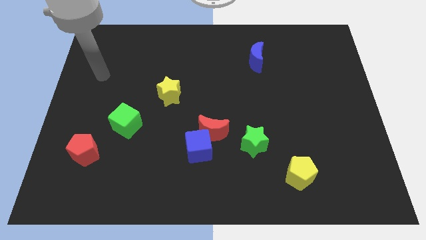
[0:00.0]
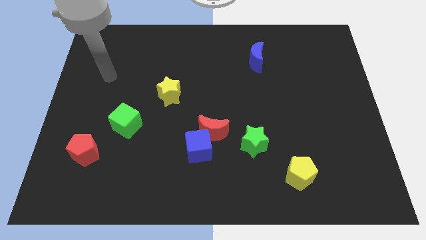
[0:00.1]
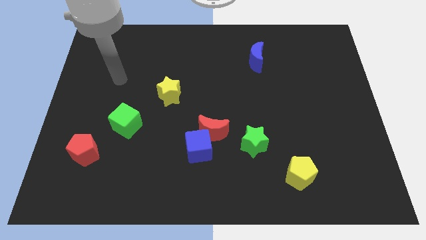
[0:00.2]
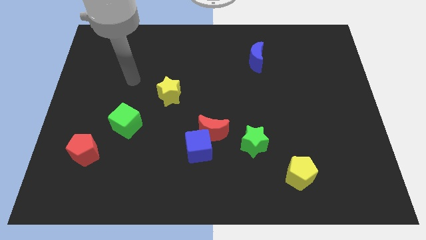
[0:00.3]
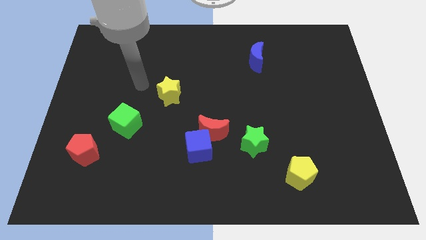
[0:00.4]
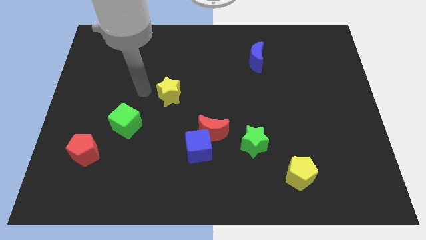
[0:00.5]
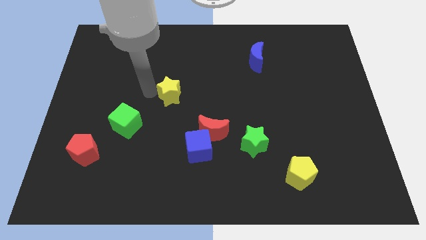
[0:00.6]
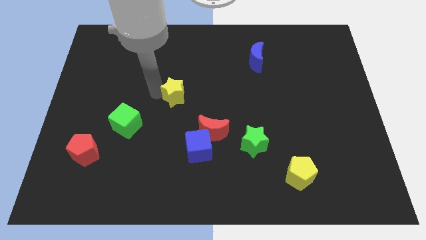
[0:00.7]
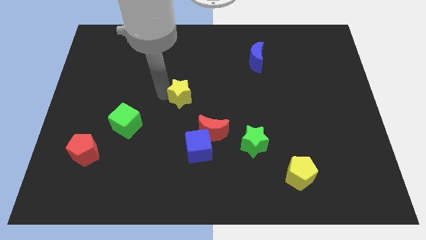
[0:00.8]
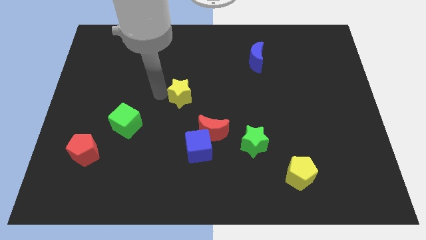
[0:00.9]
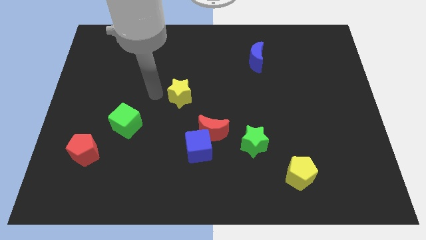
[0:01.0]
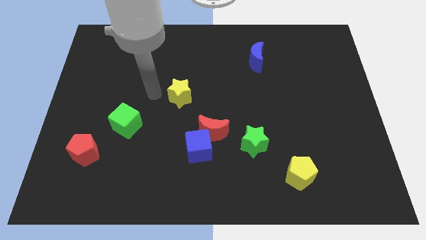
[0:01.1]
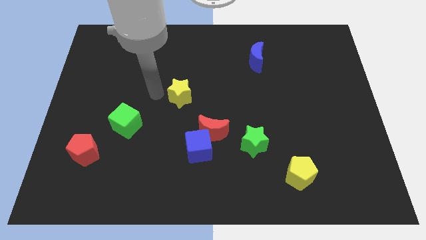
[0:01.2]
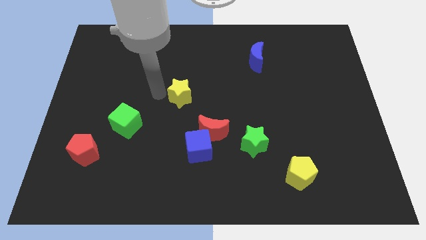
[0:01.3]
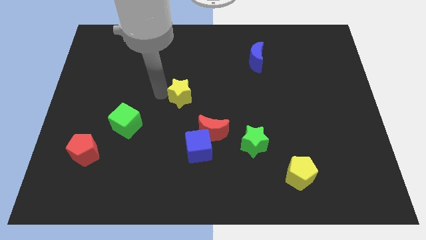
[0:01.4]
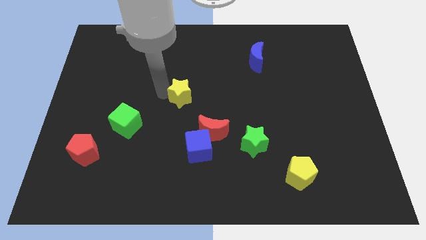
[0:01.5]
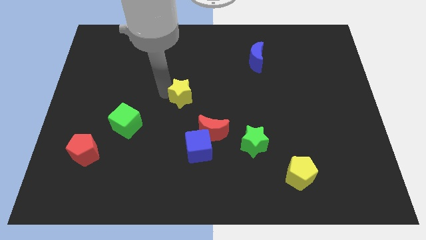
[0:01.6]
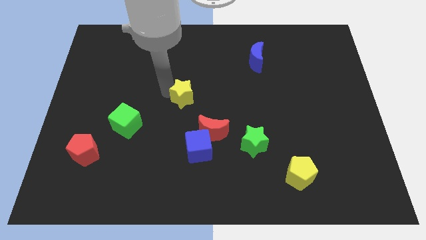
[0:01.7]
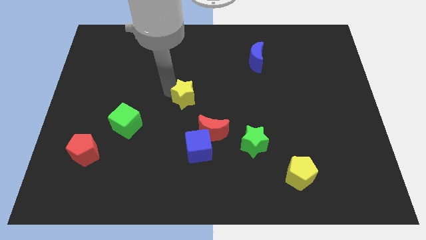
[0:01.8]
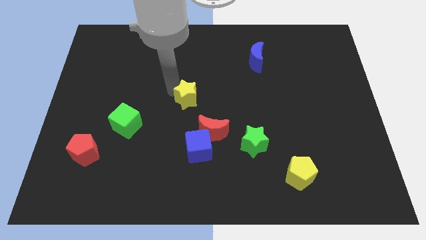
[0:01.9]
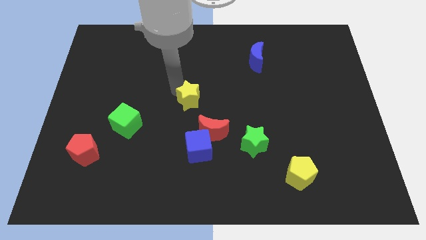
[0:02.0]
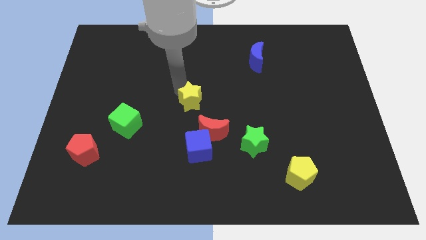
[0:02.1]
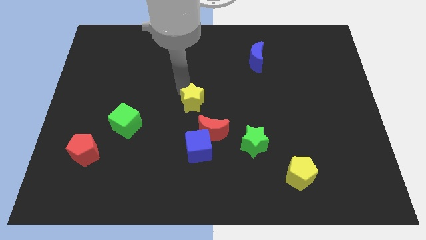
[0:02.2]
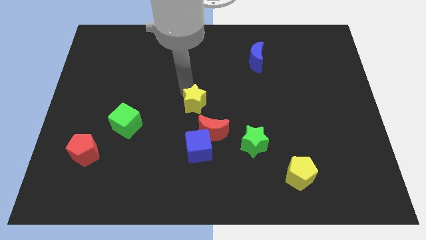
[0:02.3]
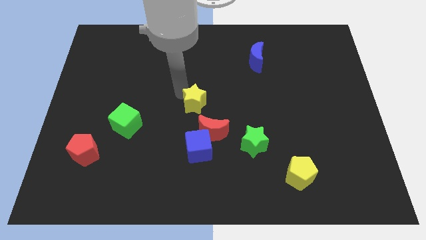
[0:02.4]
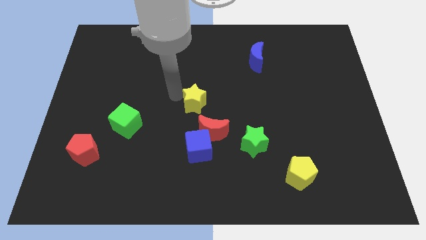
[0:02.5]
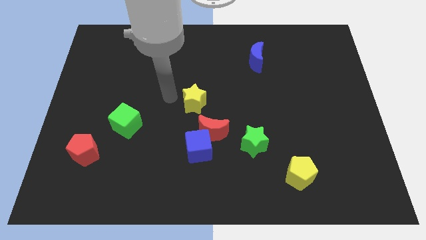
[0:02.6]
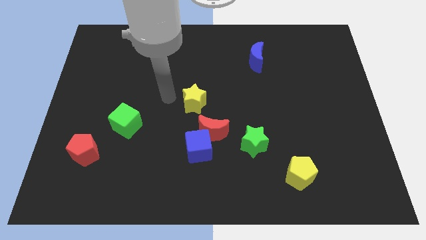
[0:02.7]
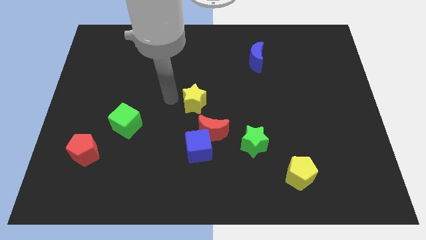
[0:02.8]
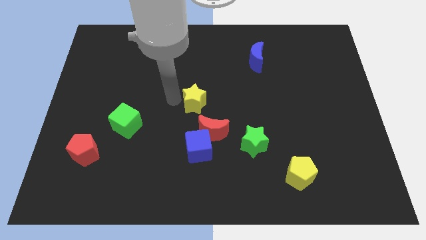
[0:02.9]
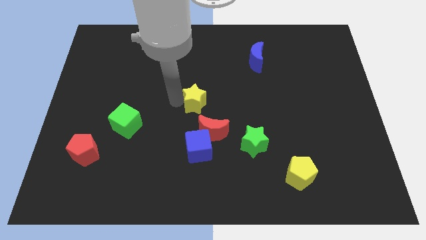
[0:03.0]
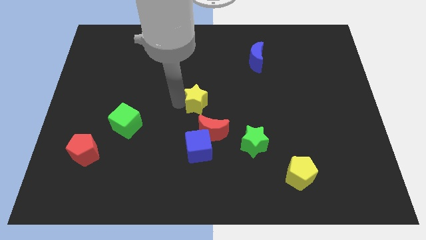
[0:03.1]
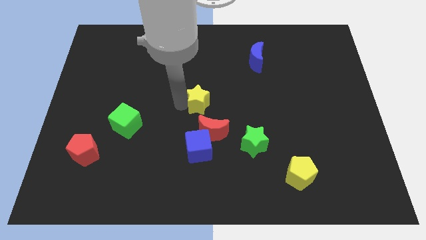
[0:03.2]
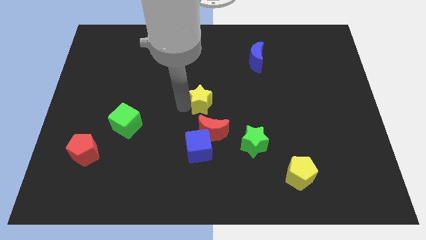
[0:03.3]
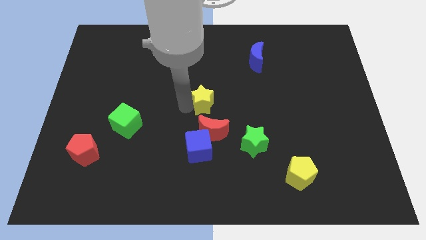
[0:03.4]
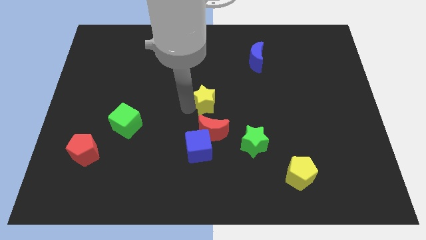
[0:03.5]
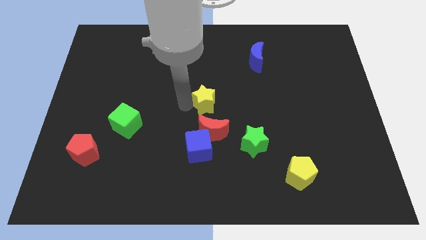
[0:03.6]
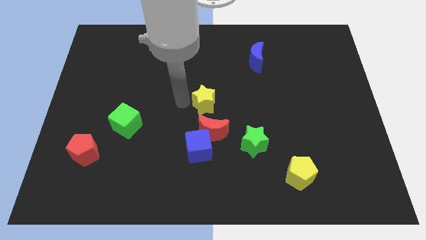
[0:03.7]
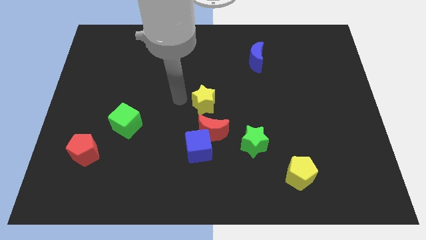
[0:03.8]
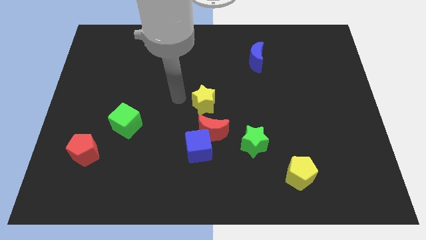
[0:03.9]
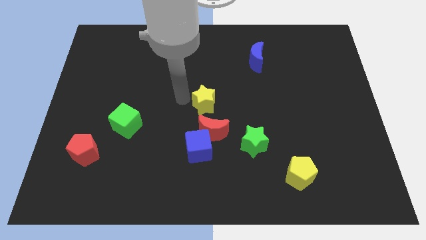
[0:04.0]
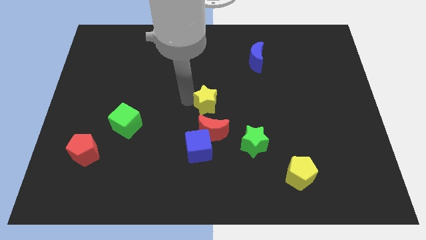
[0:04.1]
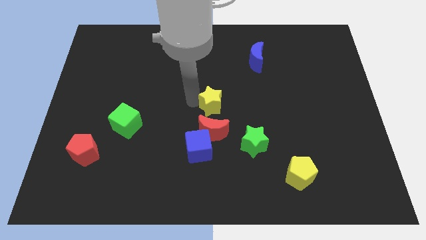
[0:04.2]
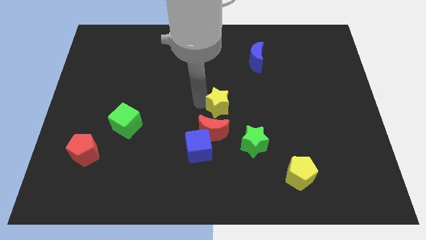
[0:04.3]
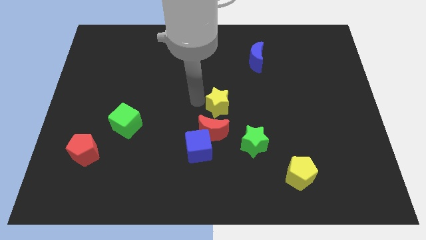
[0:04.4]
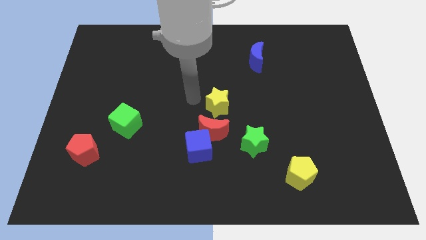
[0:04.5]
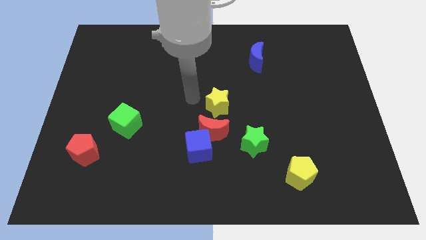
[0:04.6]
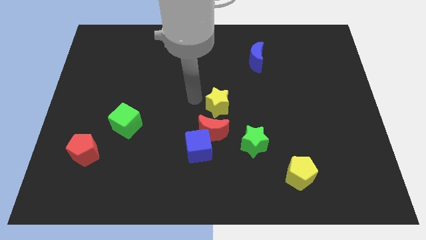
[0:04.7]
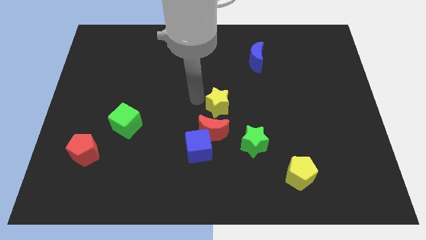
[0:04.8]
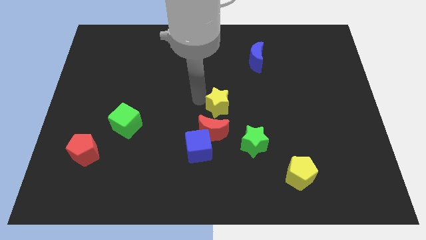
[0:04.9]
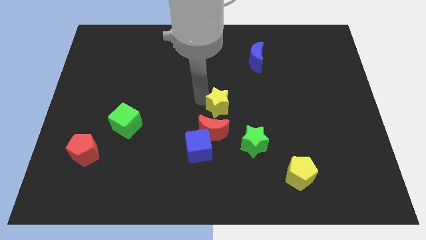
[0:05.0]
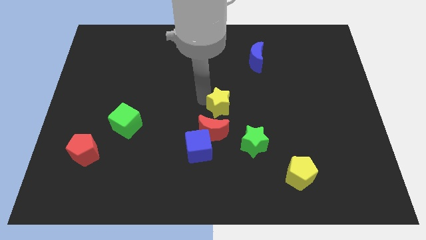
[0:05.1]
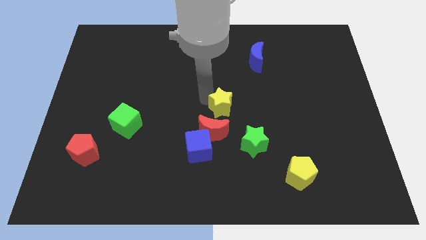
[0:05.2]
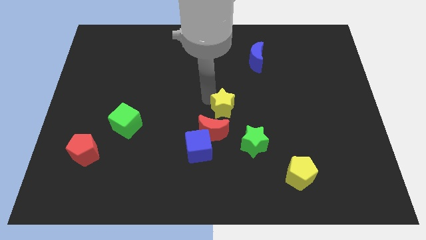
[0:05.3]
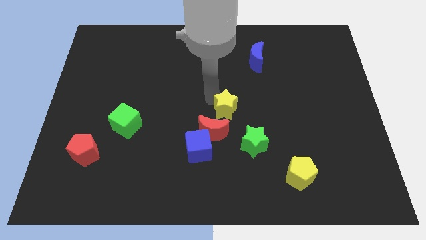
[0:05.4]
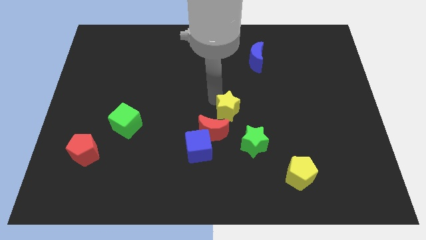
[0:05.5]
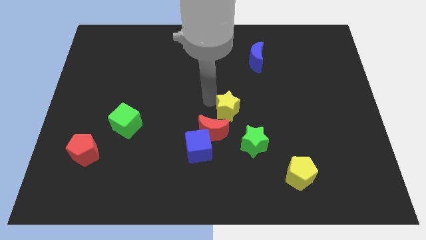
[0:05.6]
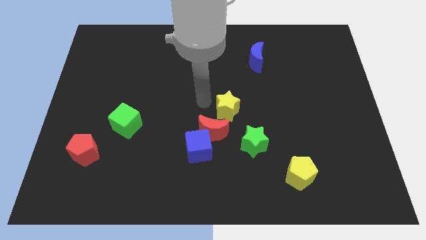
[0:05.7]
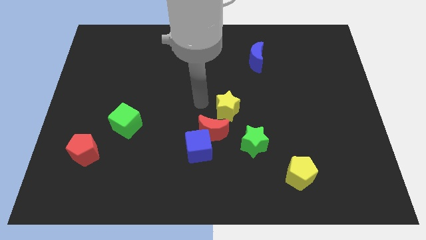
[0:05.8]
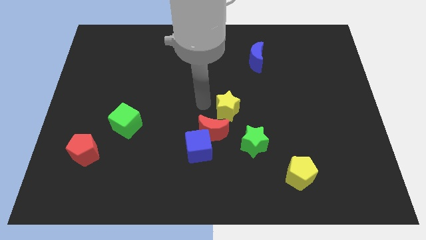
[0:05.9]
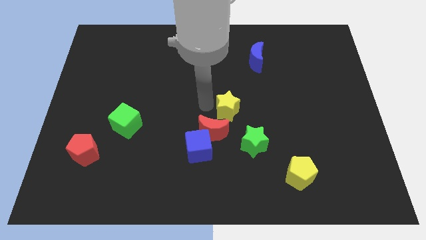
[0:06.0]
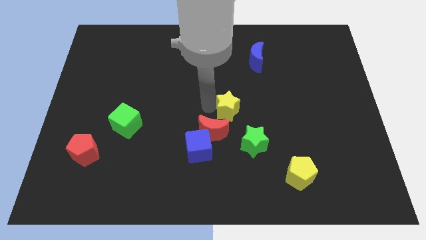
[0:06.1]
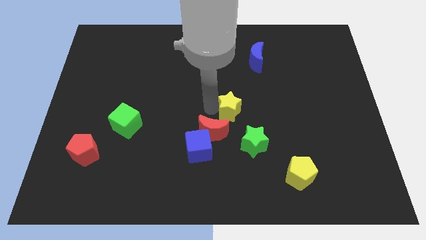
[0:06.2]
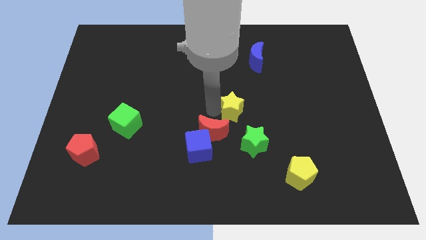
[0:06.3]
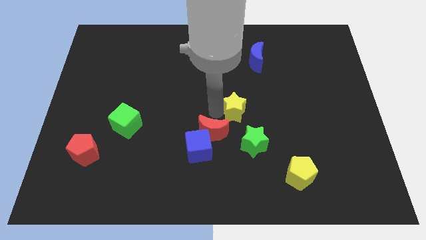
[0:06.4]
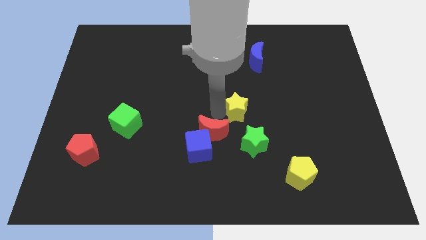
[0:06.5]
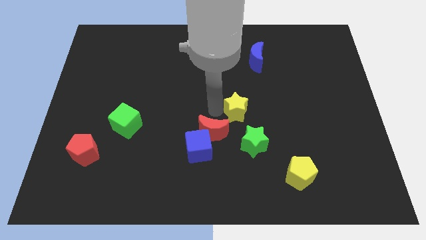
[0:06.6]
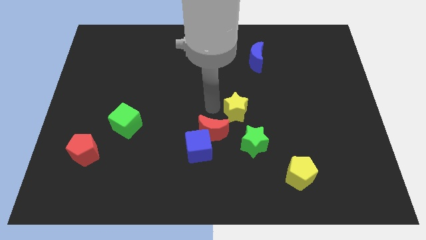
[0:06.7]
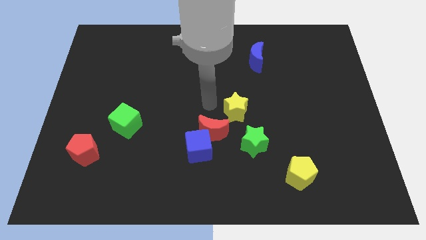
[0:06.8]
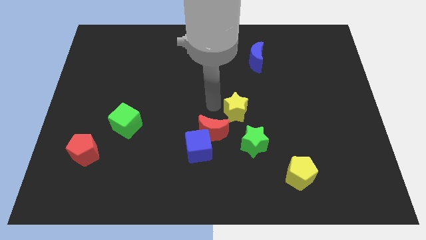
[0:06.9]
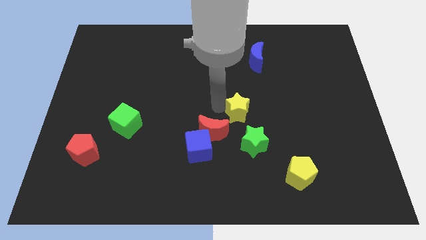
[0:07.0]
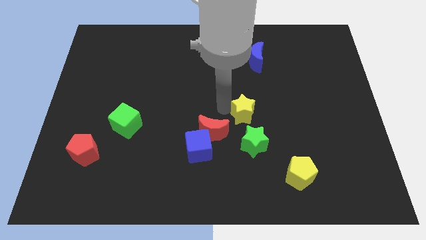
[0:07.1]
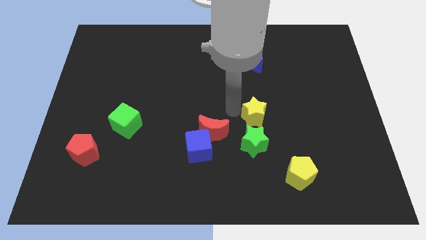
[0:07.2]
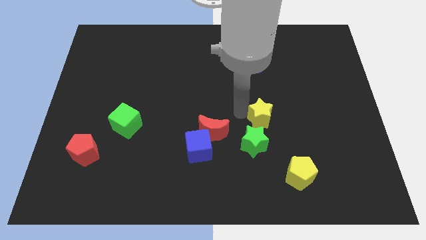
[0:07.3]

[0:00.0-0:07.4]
put the yellow star to the top right side of the green star
